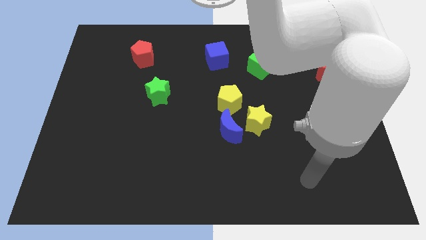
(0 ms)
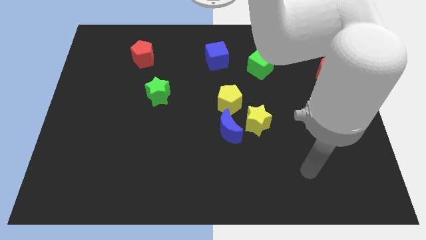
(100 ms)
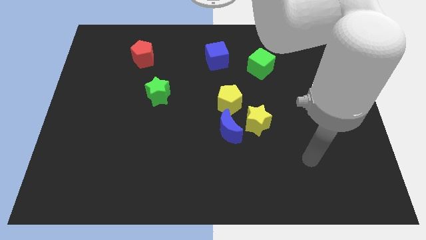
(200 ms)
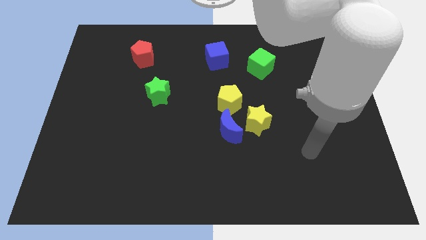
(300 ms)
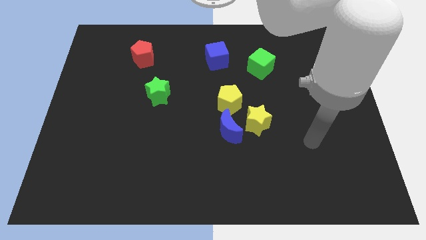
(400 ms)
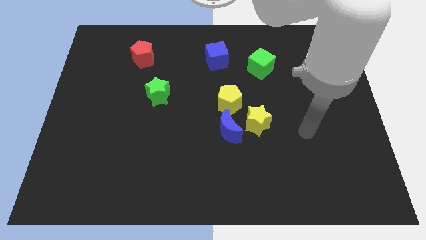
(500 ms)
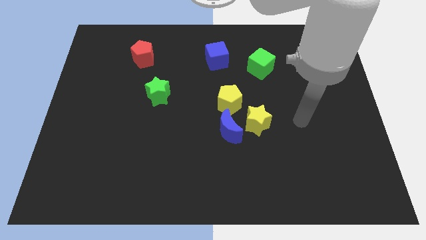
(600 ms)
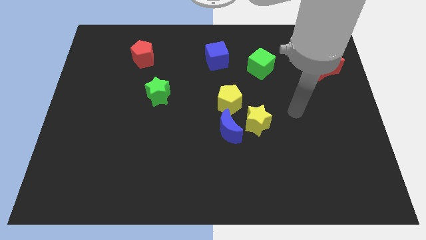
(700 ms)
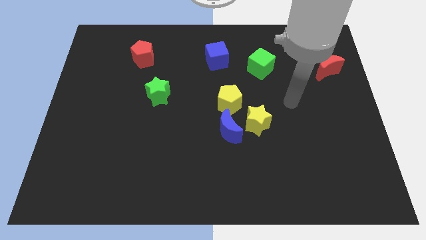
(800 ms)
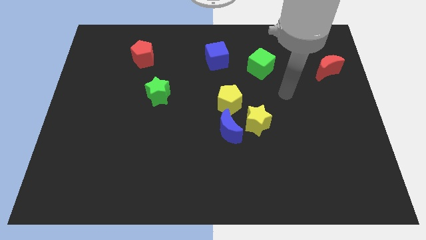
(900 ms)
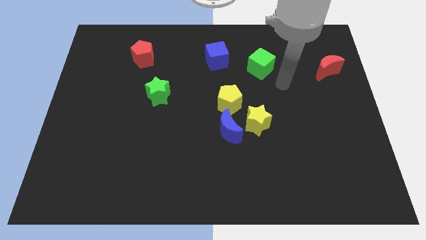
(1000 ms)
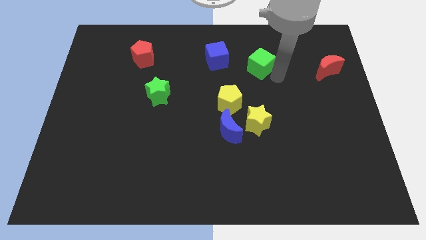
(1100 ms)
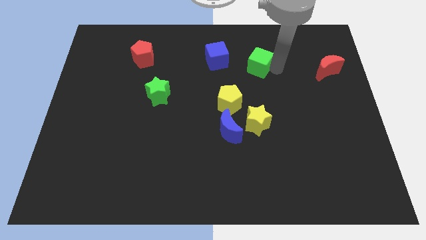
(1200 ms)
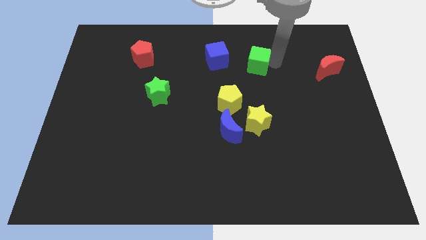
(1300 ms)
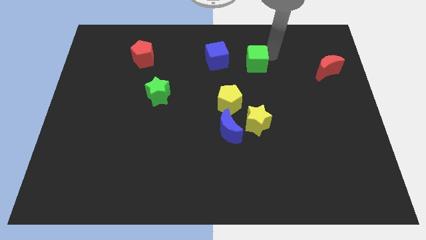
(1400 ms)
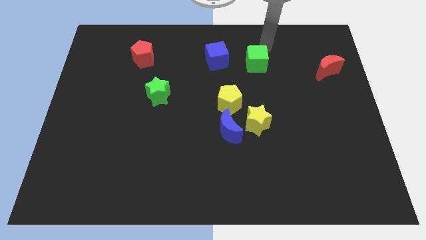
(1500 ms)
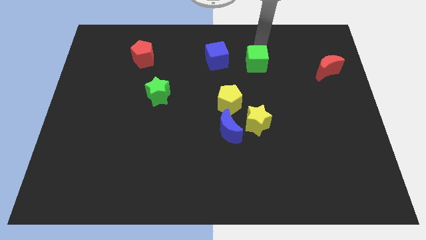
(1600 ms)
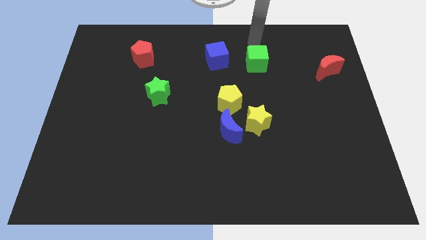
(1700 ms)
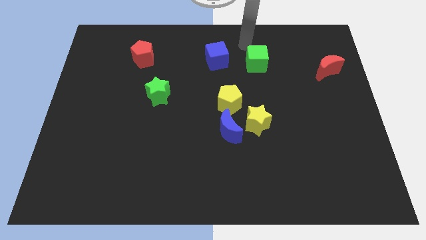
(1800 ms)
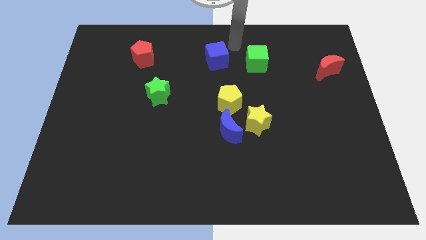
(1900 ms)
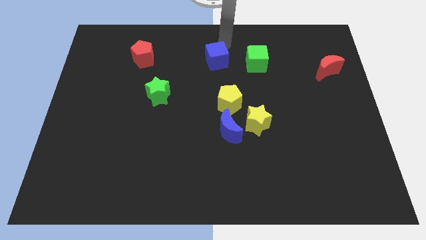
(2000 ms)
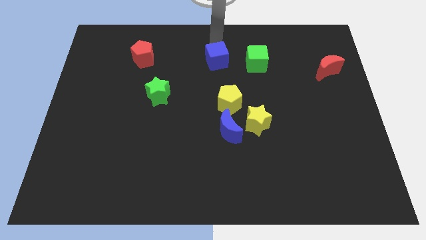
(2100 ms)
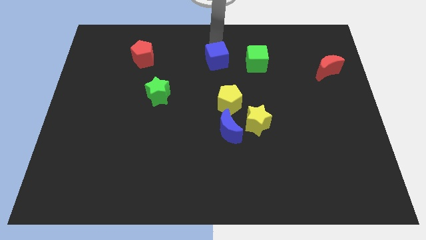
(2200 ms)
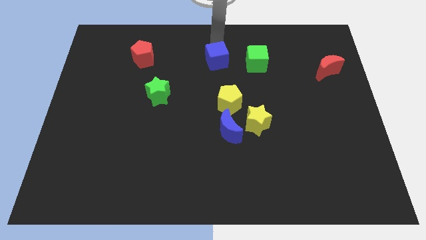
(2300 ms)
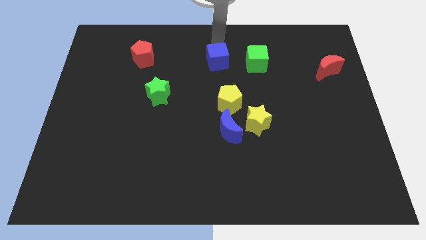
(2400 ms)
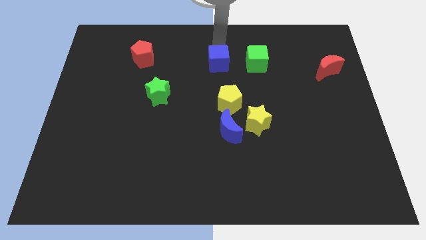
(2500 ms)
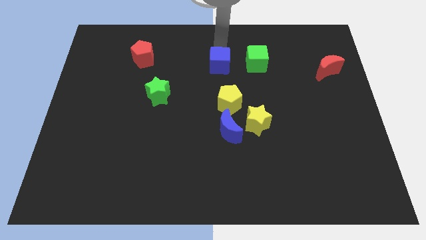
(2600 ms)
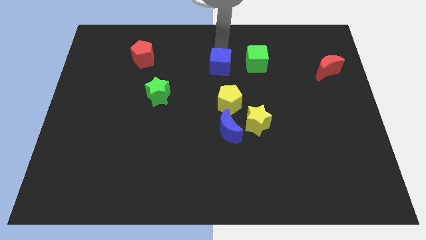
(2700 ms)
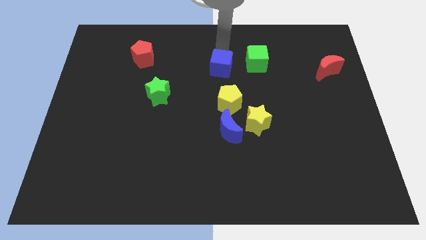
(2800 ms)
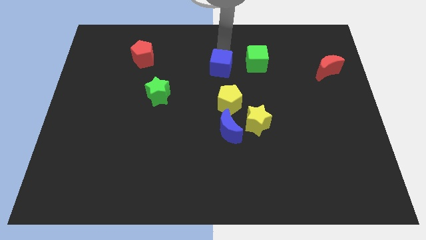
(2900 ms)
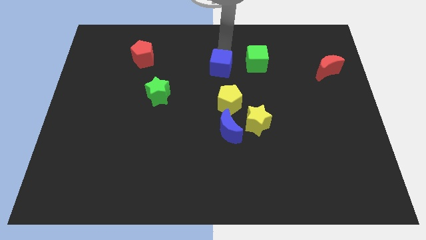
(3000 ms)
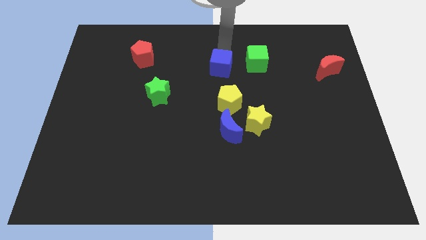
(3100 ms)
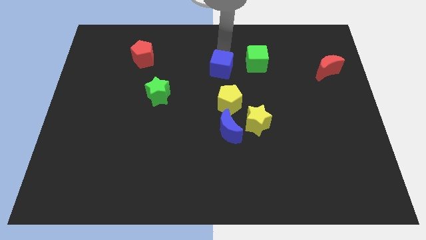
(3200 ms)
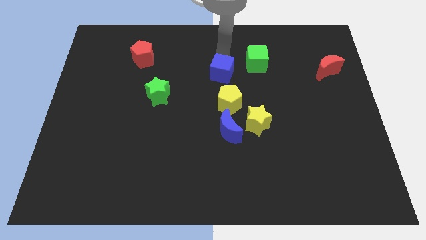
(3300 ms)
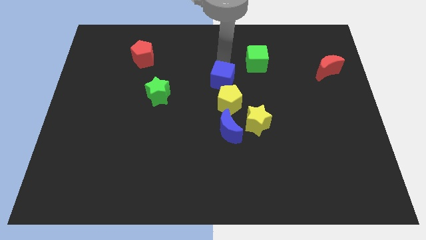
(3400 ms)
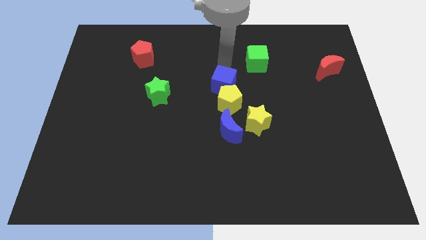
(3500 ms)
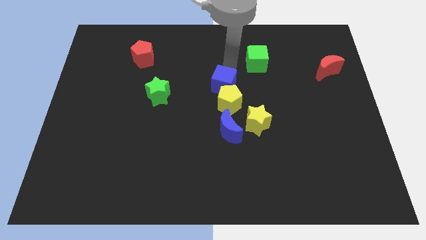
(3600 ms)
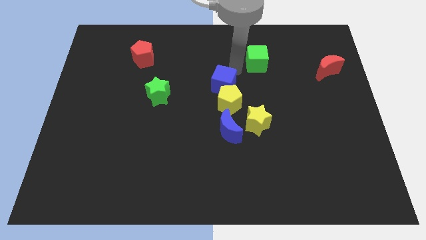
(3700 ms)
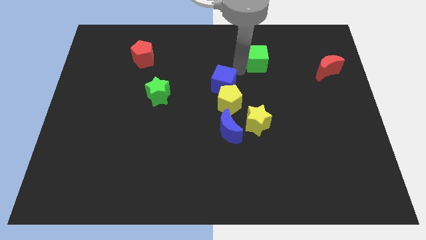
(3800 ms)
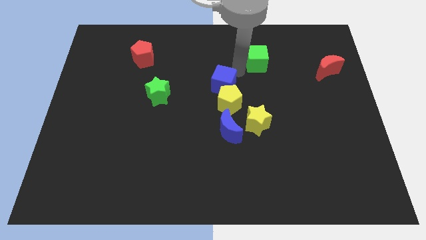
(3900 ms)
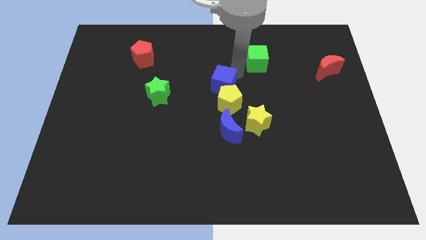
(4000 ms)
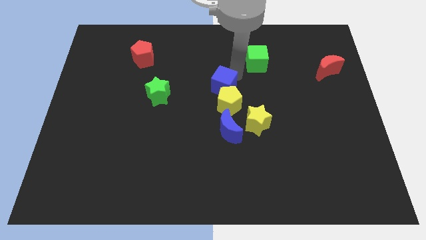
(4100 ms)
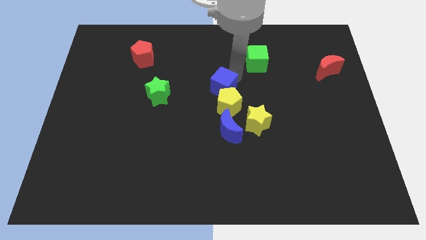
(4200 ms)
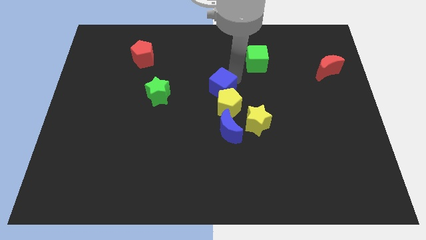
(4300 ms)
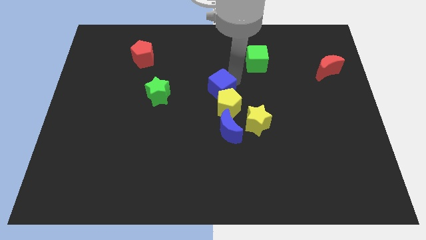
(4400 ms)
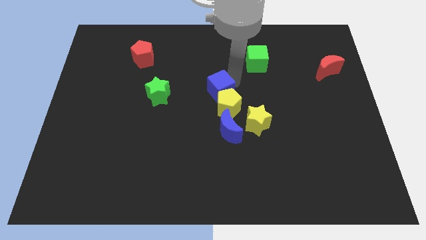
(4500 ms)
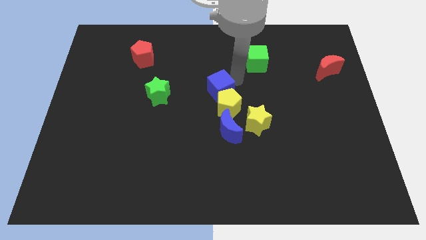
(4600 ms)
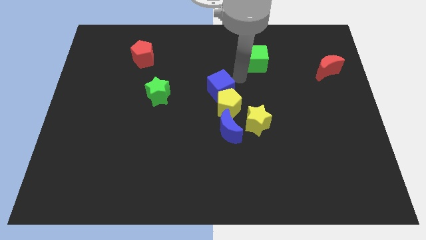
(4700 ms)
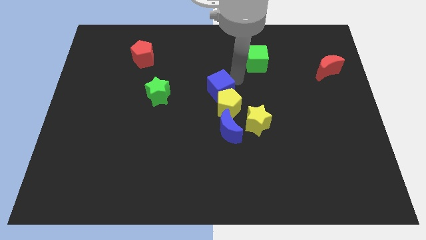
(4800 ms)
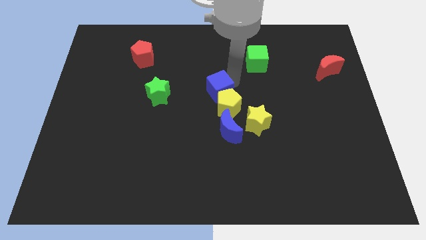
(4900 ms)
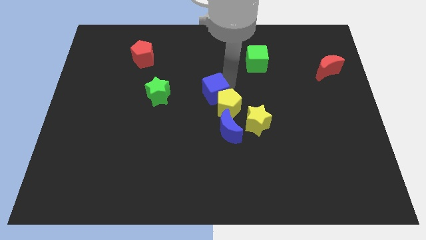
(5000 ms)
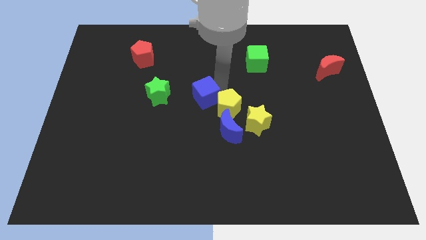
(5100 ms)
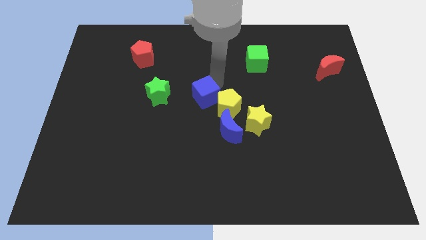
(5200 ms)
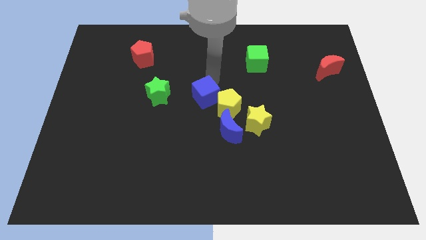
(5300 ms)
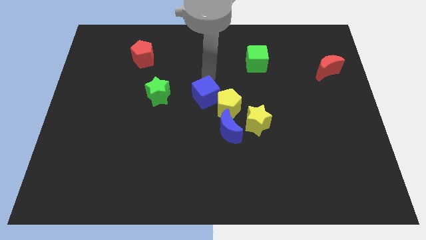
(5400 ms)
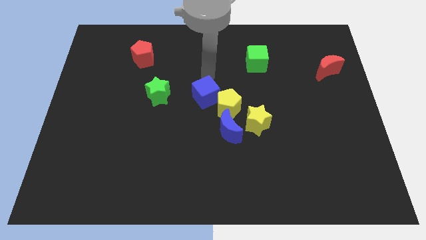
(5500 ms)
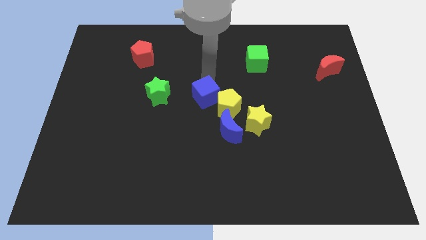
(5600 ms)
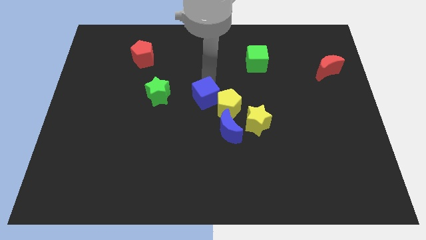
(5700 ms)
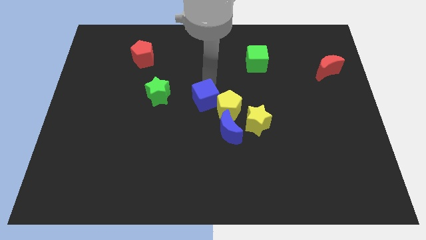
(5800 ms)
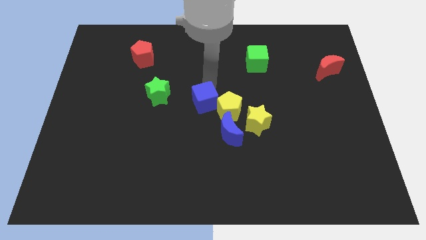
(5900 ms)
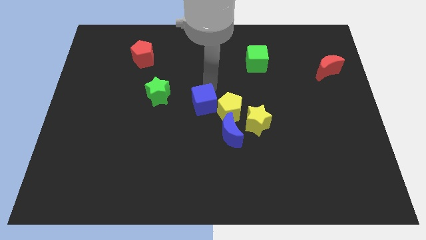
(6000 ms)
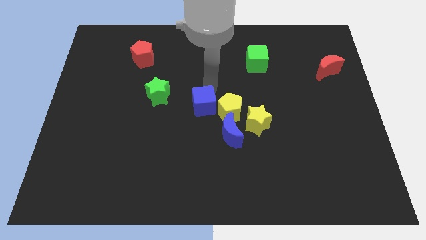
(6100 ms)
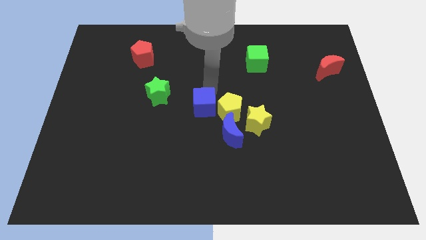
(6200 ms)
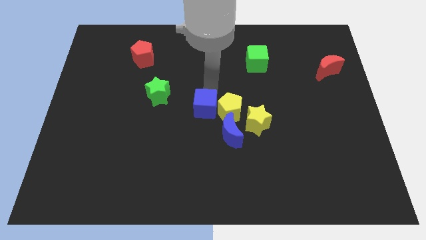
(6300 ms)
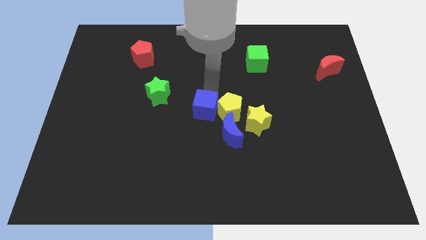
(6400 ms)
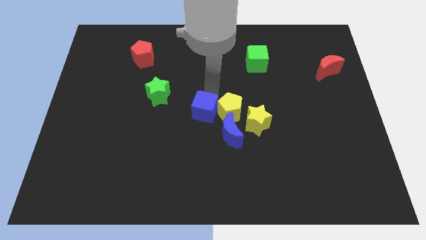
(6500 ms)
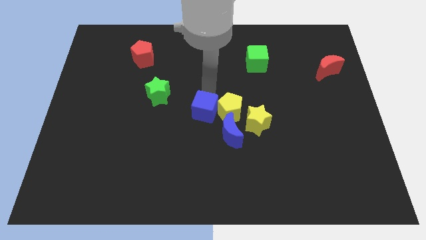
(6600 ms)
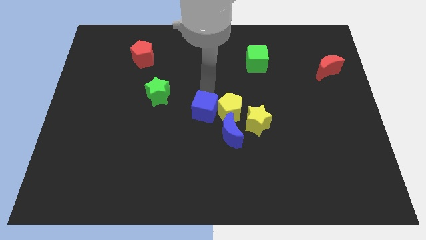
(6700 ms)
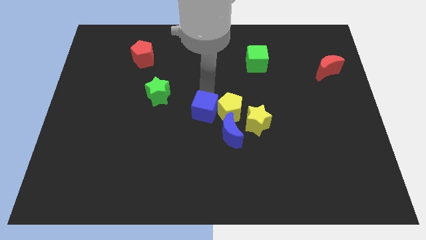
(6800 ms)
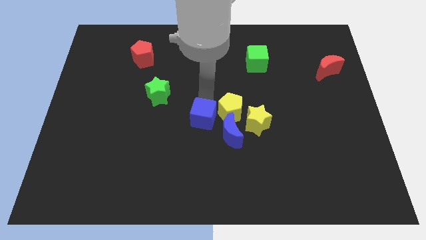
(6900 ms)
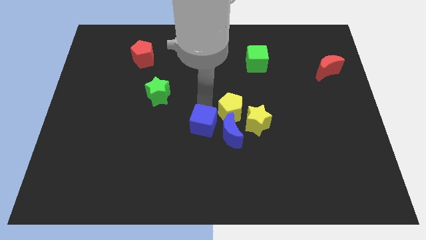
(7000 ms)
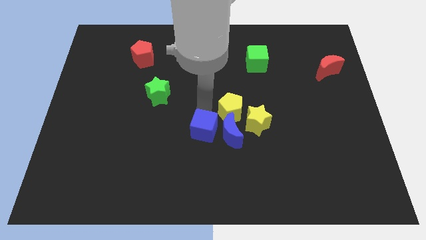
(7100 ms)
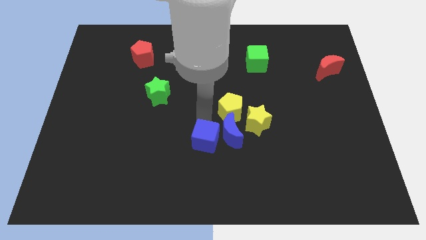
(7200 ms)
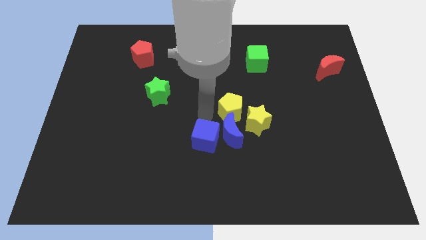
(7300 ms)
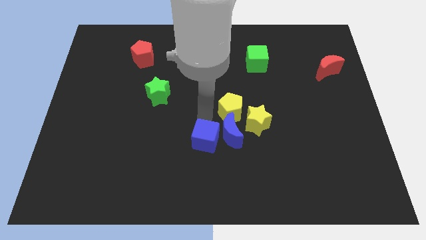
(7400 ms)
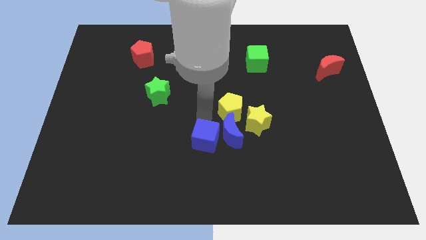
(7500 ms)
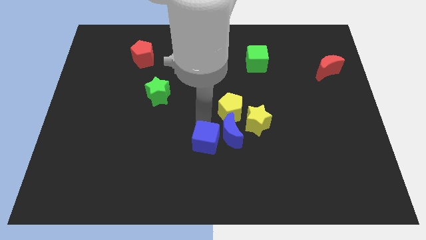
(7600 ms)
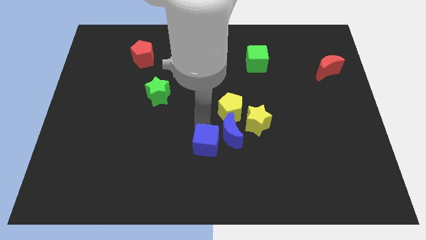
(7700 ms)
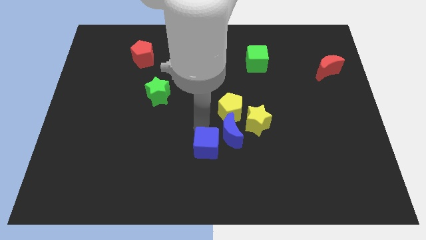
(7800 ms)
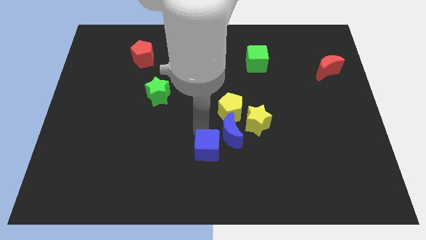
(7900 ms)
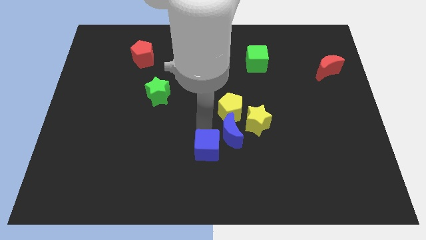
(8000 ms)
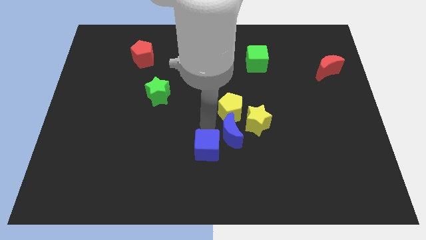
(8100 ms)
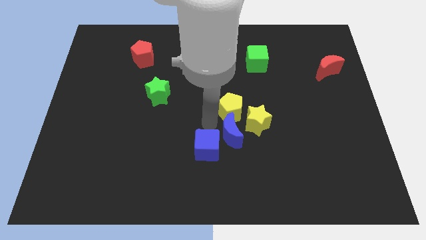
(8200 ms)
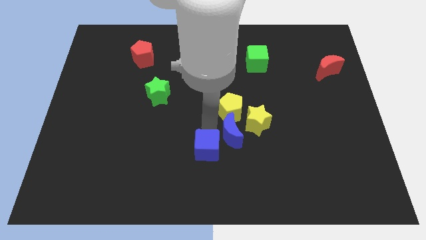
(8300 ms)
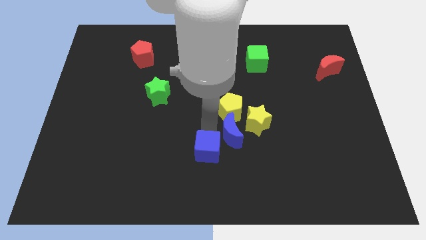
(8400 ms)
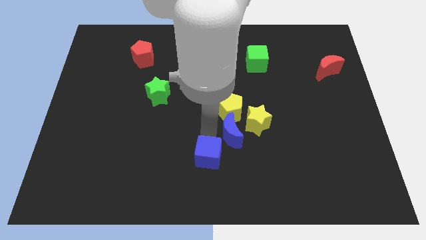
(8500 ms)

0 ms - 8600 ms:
push the blue cube to the bottom side
